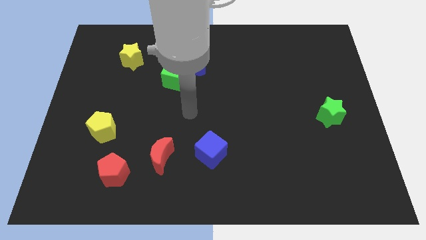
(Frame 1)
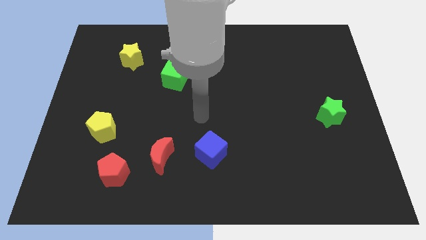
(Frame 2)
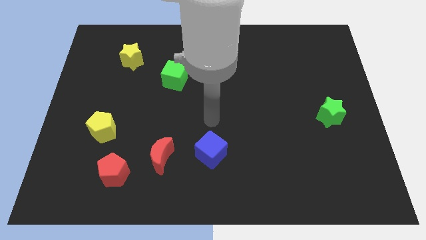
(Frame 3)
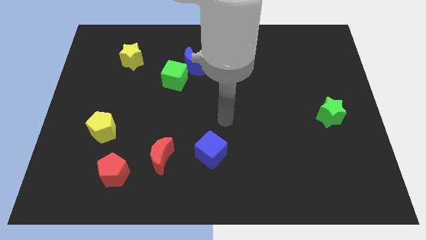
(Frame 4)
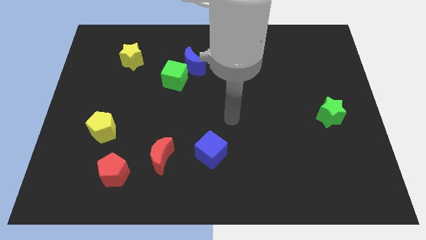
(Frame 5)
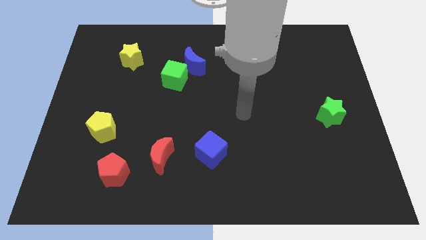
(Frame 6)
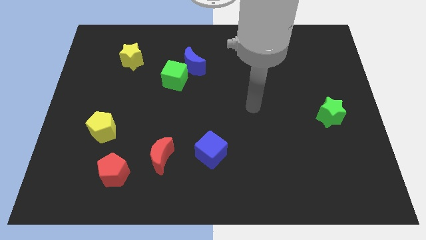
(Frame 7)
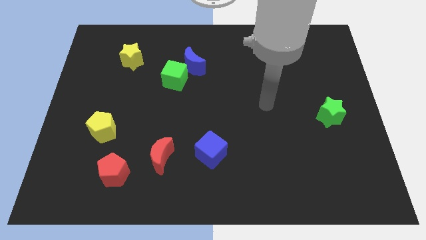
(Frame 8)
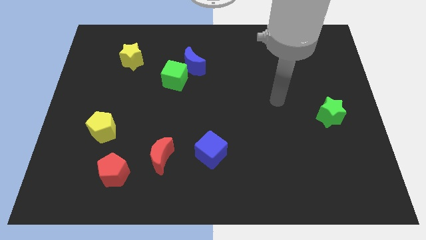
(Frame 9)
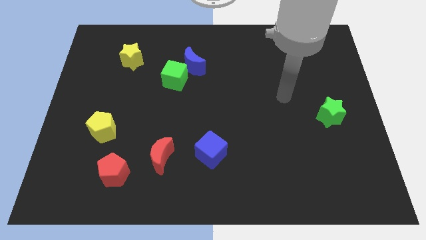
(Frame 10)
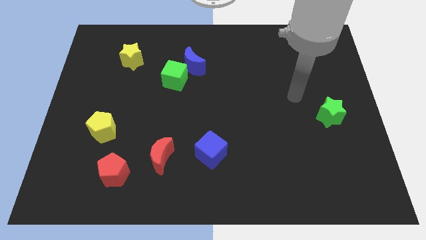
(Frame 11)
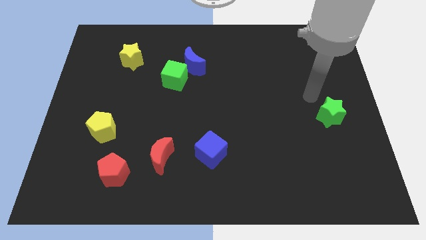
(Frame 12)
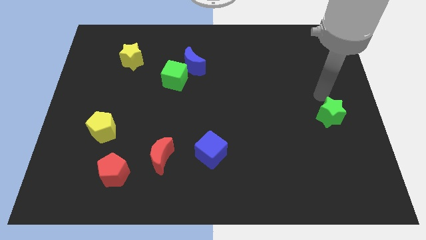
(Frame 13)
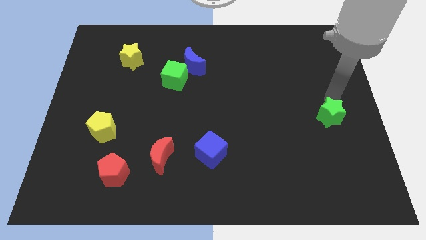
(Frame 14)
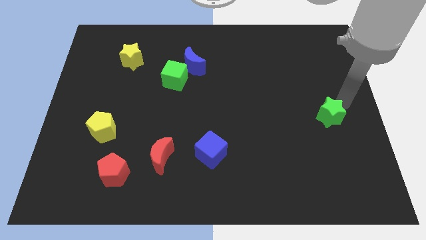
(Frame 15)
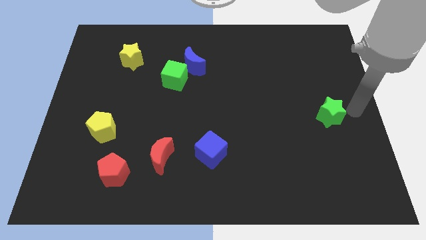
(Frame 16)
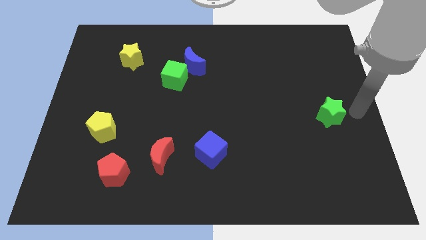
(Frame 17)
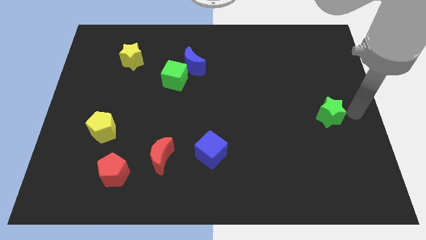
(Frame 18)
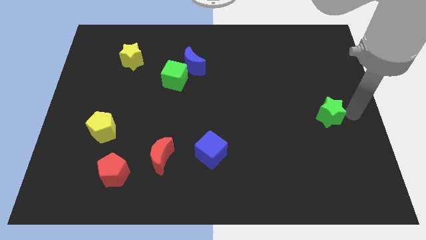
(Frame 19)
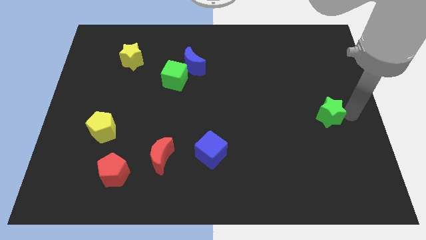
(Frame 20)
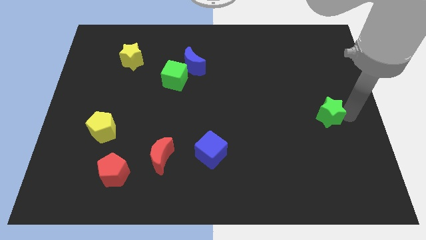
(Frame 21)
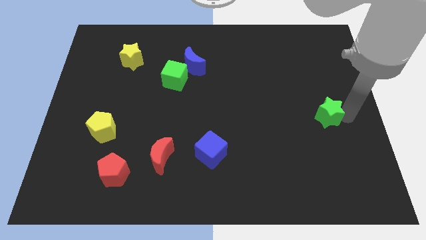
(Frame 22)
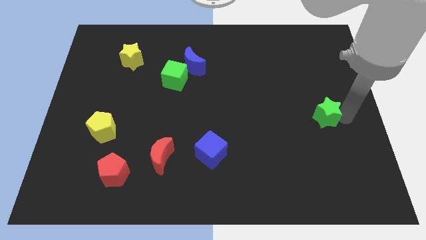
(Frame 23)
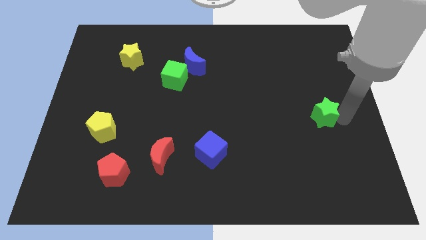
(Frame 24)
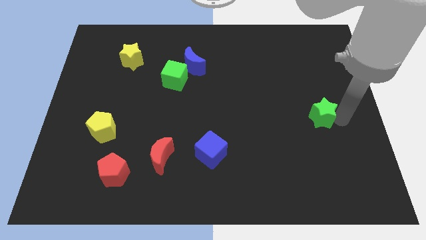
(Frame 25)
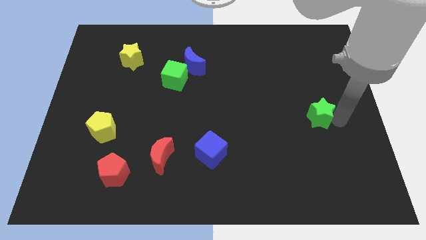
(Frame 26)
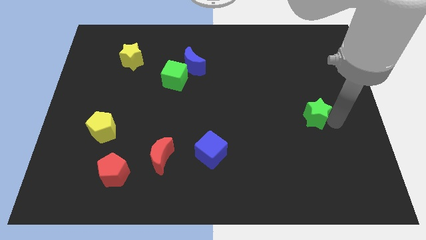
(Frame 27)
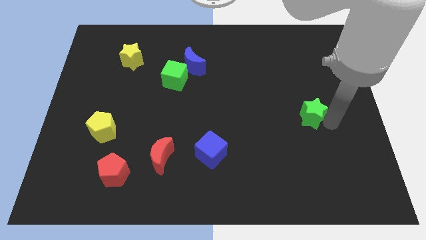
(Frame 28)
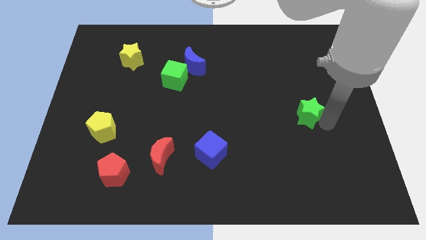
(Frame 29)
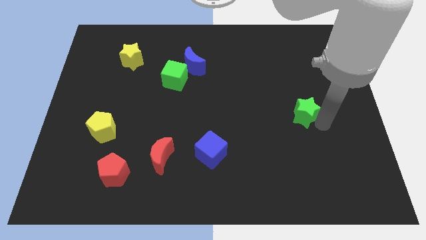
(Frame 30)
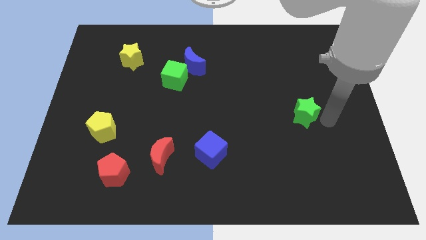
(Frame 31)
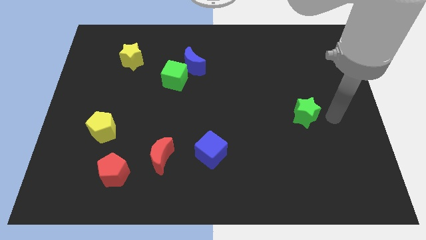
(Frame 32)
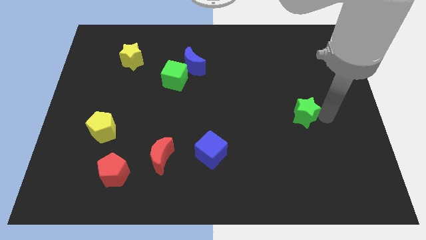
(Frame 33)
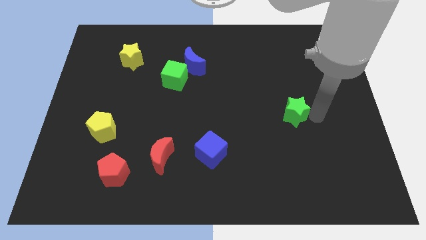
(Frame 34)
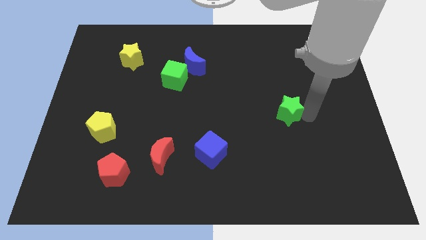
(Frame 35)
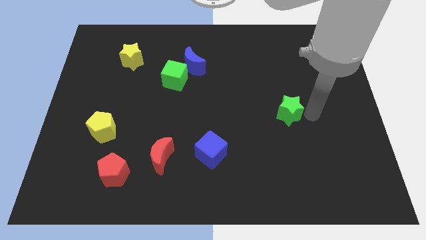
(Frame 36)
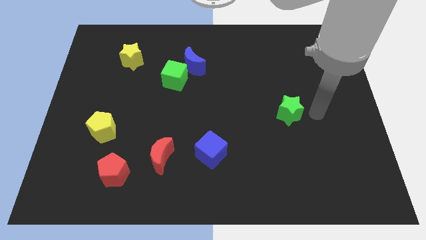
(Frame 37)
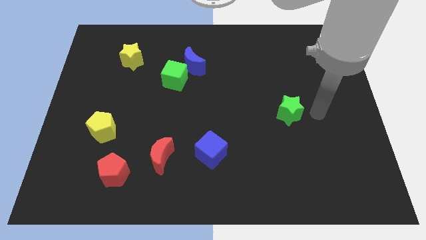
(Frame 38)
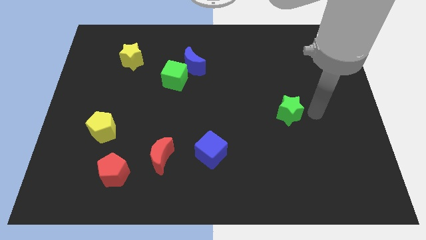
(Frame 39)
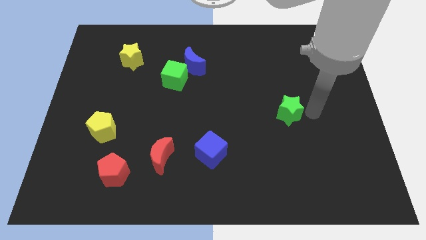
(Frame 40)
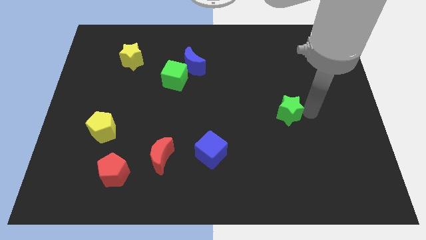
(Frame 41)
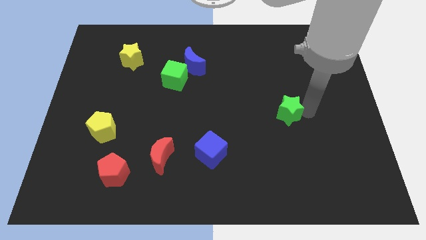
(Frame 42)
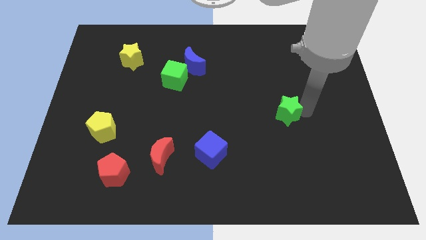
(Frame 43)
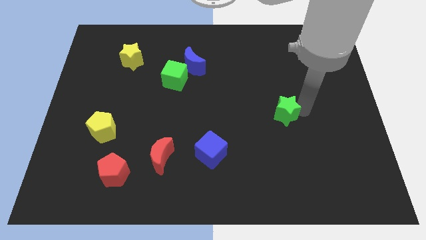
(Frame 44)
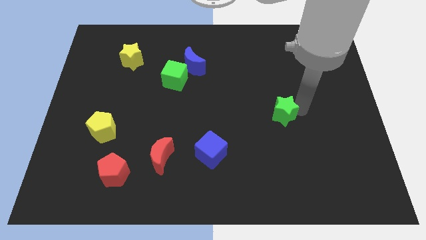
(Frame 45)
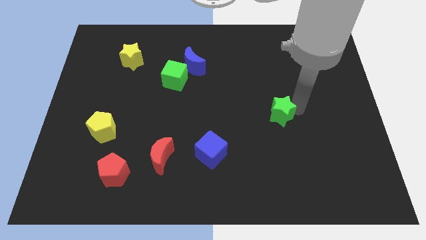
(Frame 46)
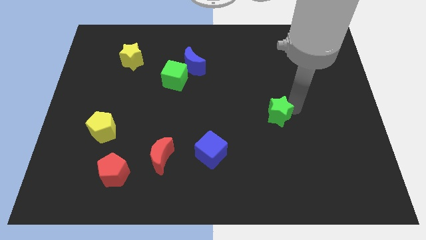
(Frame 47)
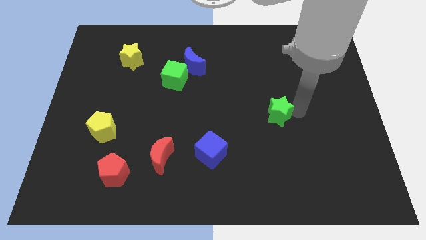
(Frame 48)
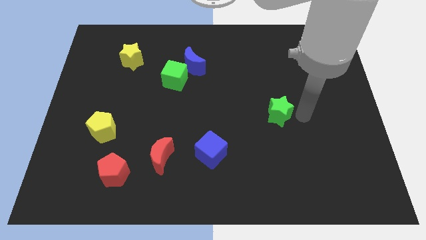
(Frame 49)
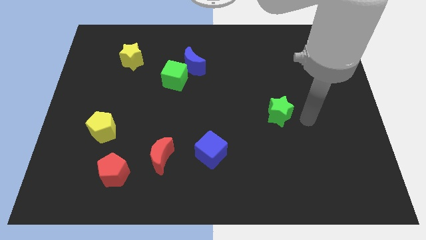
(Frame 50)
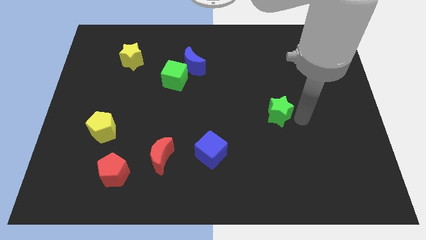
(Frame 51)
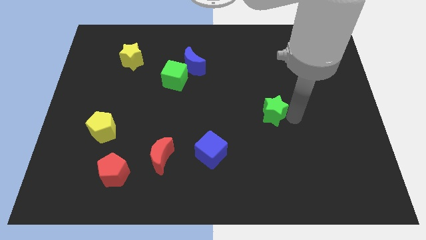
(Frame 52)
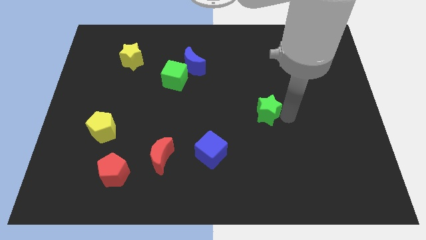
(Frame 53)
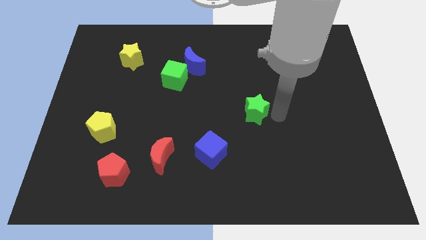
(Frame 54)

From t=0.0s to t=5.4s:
slide the green star to the middle of the board

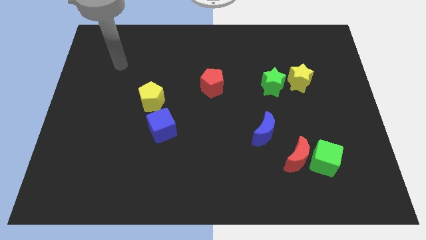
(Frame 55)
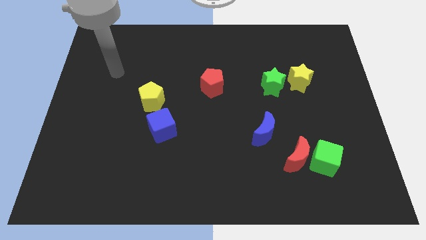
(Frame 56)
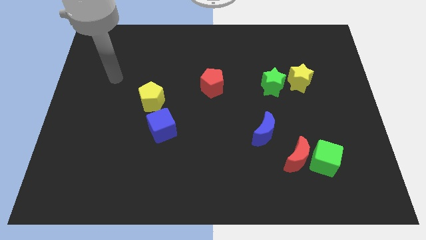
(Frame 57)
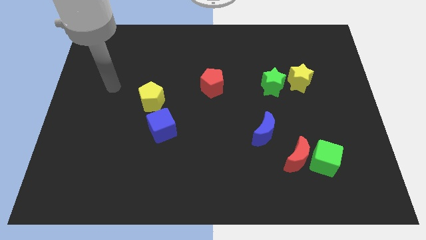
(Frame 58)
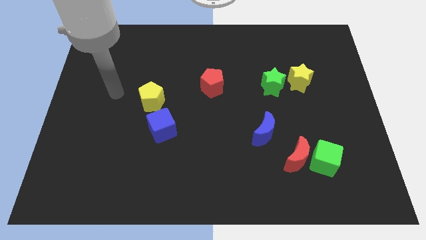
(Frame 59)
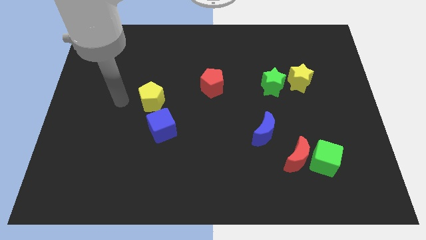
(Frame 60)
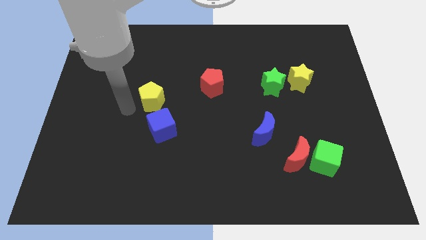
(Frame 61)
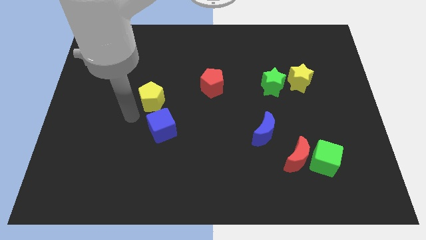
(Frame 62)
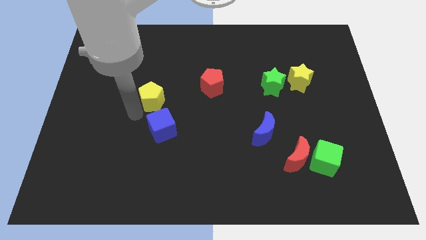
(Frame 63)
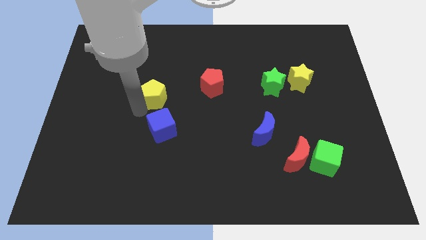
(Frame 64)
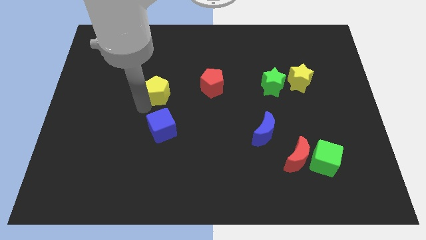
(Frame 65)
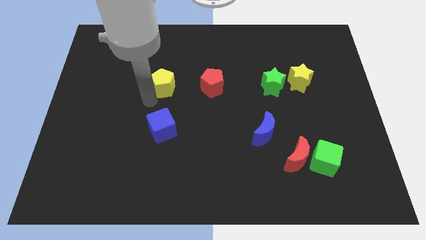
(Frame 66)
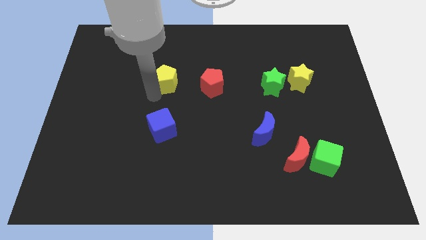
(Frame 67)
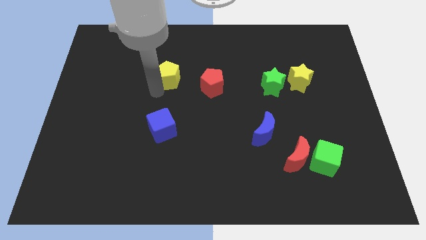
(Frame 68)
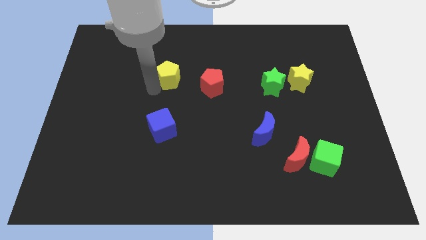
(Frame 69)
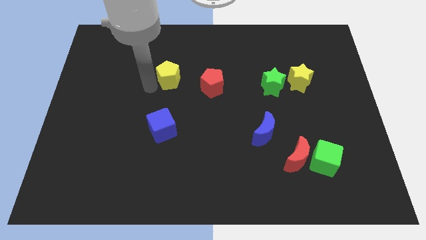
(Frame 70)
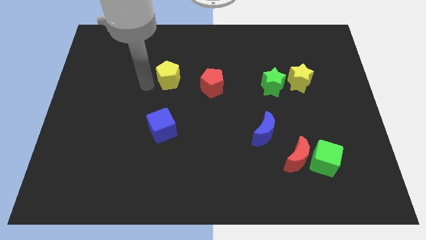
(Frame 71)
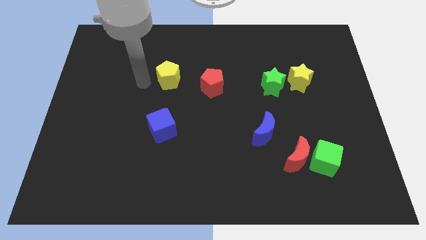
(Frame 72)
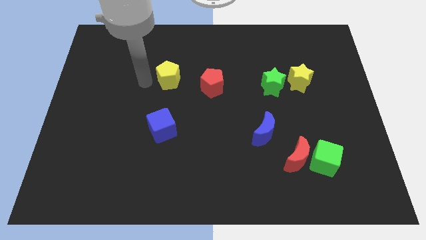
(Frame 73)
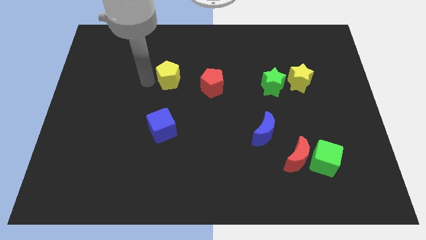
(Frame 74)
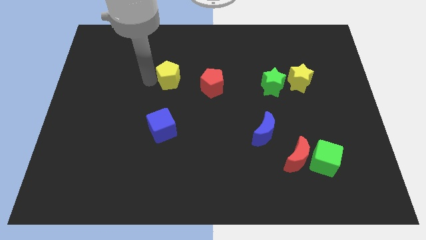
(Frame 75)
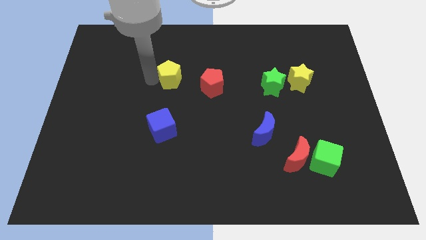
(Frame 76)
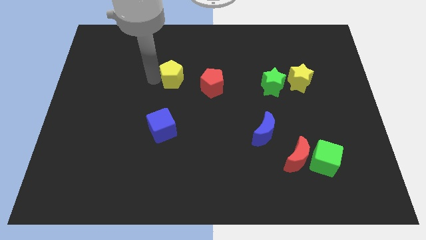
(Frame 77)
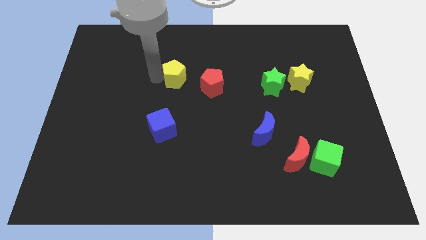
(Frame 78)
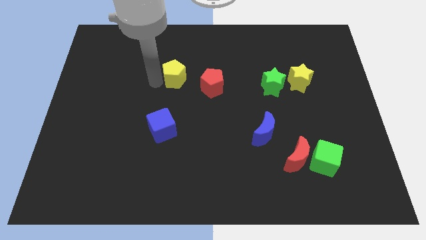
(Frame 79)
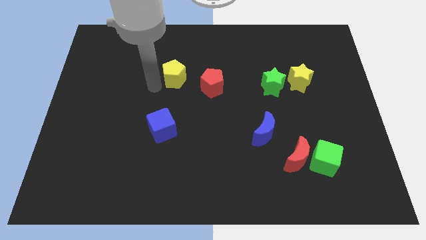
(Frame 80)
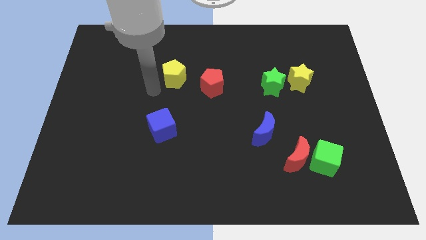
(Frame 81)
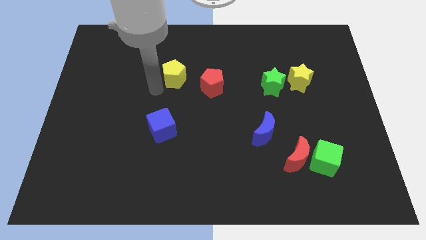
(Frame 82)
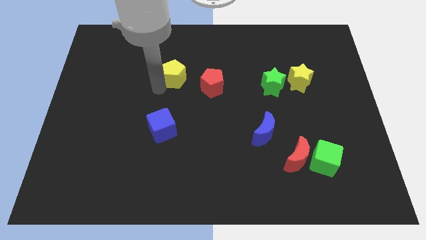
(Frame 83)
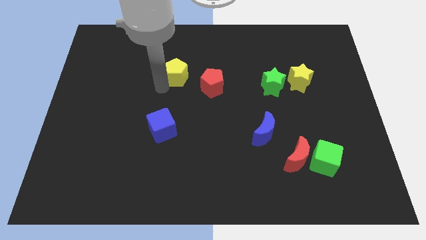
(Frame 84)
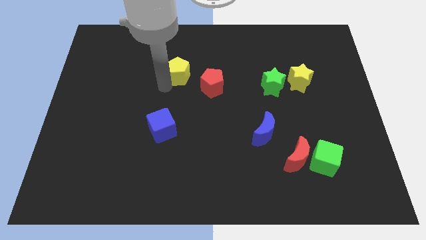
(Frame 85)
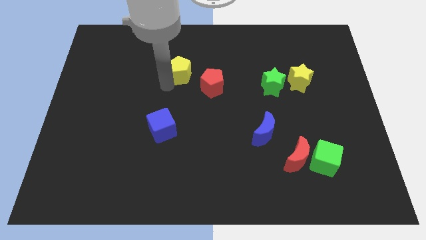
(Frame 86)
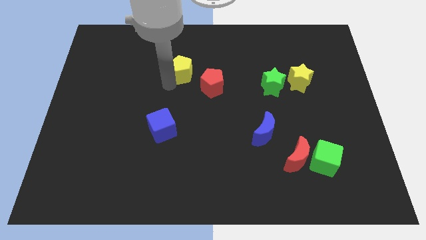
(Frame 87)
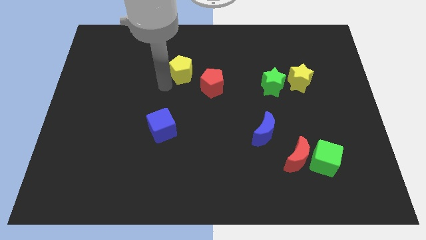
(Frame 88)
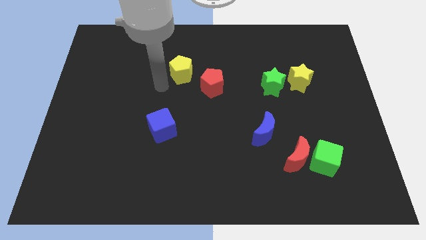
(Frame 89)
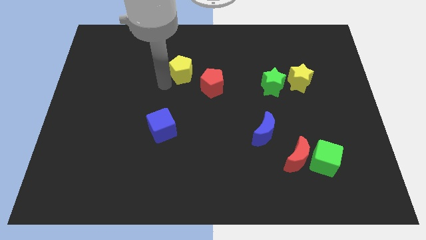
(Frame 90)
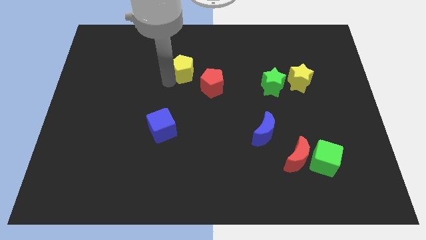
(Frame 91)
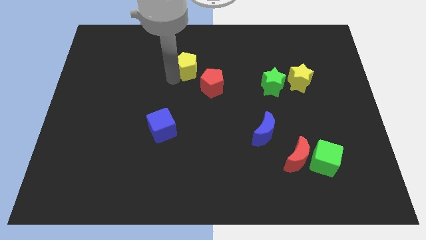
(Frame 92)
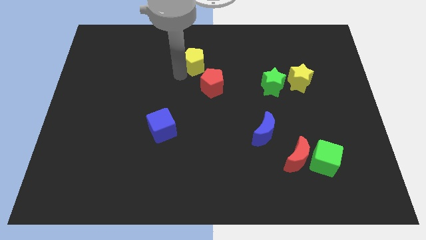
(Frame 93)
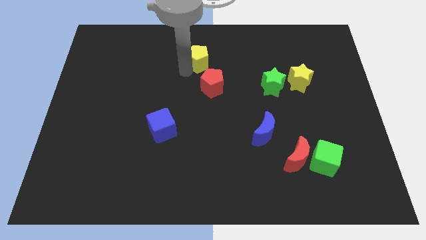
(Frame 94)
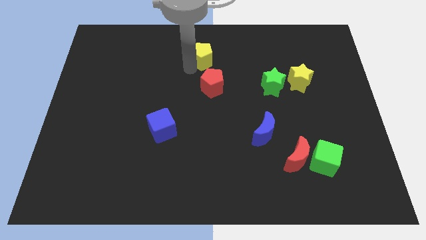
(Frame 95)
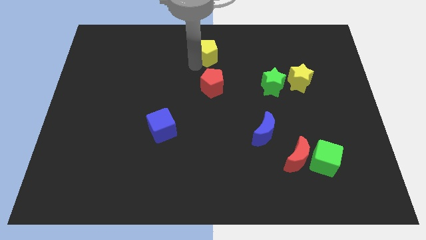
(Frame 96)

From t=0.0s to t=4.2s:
move the yellow pentagon to the top
